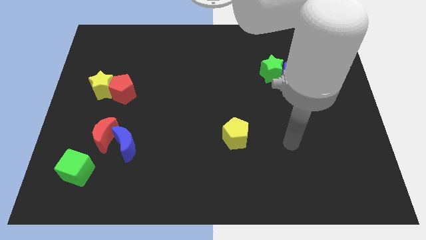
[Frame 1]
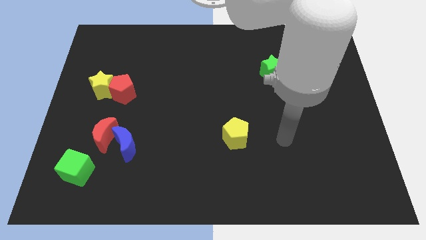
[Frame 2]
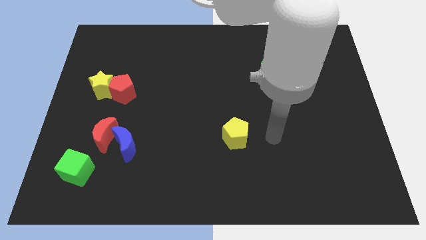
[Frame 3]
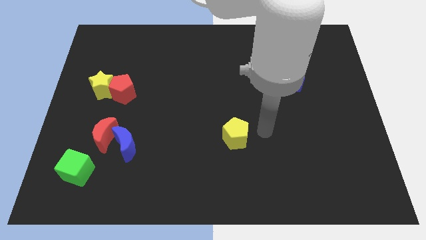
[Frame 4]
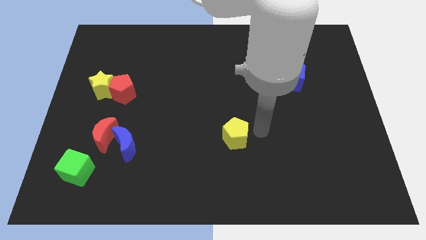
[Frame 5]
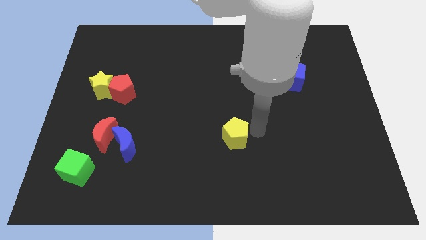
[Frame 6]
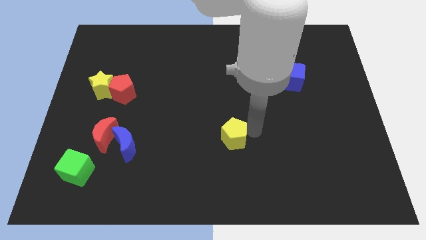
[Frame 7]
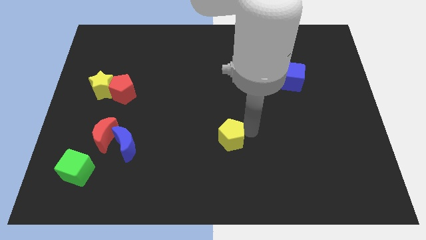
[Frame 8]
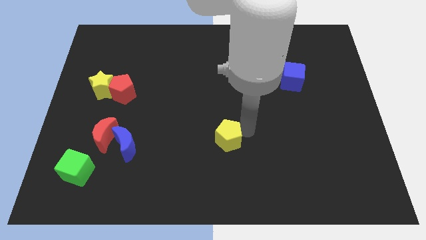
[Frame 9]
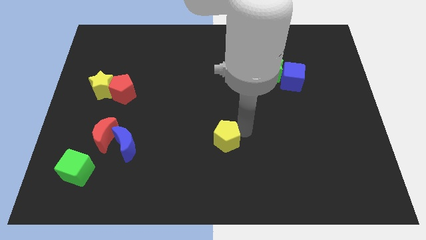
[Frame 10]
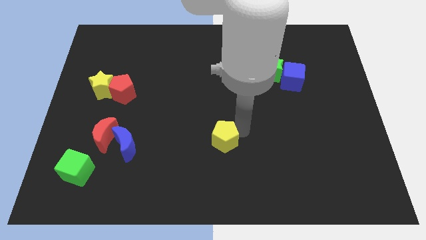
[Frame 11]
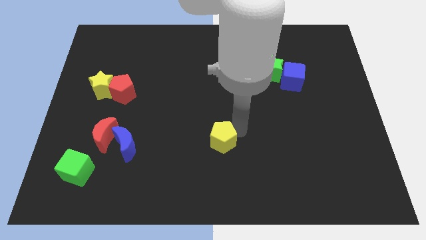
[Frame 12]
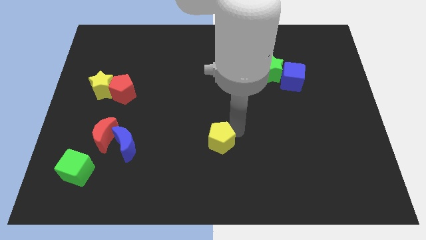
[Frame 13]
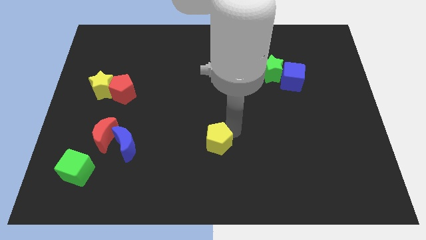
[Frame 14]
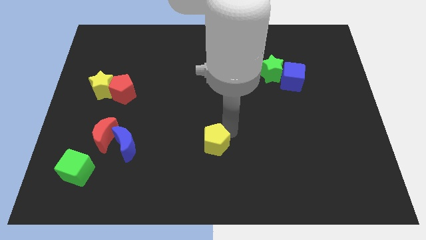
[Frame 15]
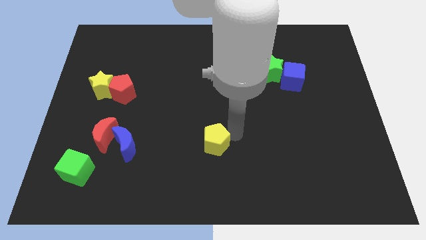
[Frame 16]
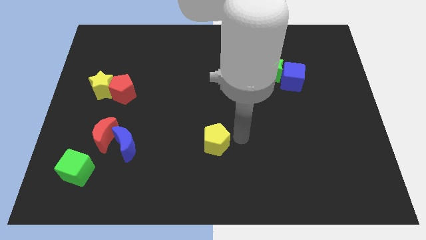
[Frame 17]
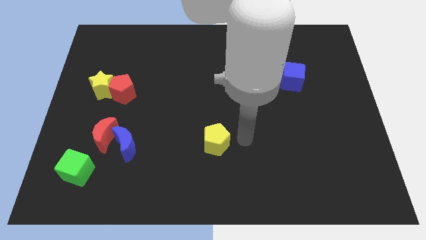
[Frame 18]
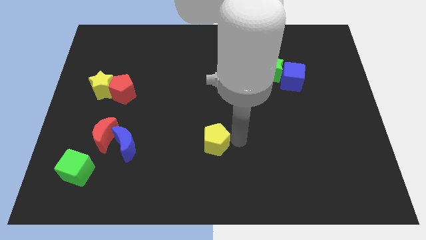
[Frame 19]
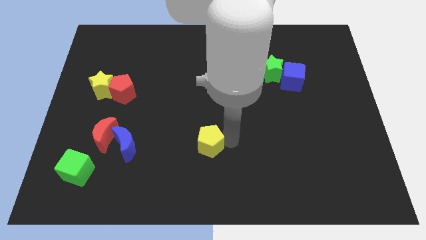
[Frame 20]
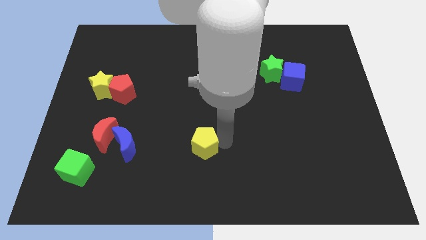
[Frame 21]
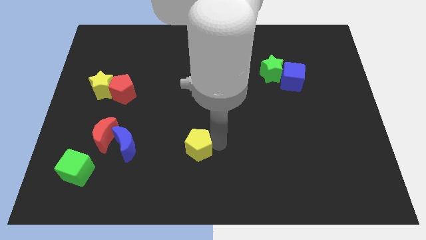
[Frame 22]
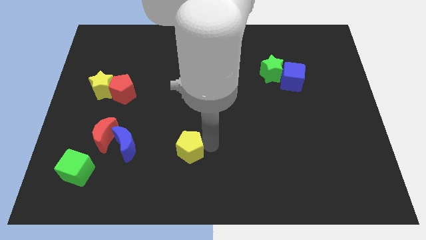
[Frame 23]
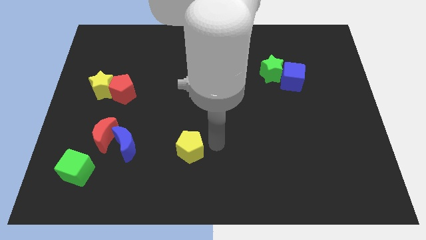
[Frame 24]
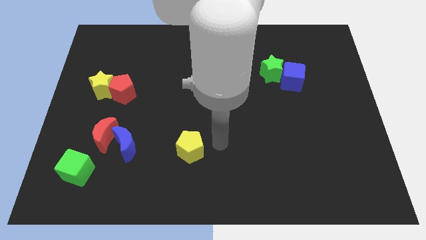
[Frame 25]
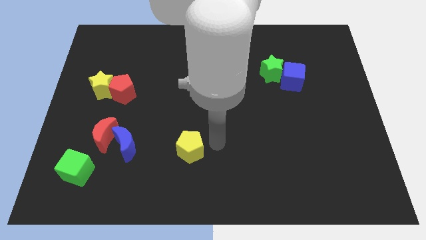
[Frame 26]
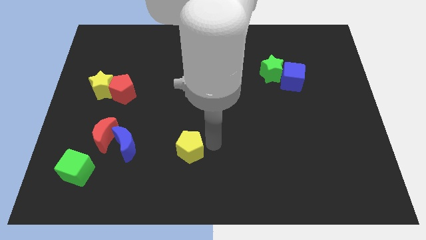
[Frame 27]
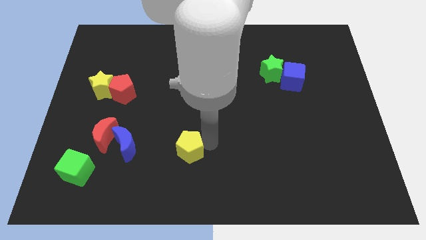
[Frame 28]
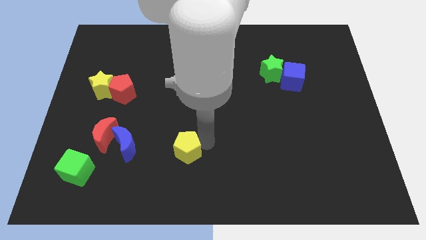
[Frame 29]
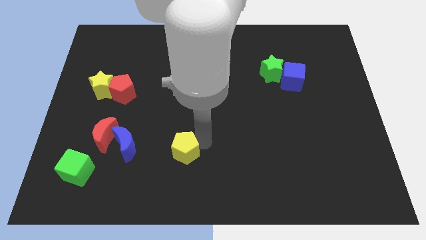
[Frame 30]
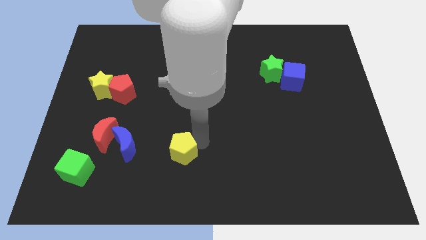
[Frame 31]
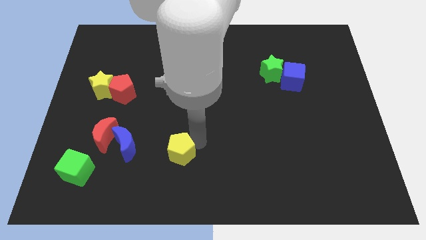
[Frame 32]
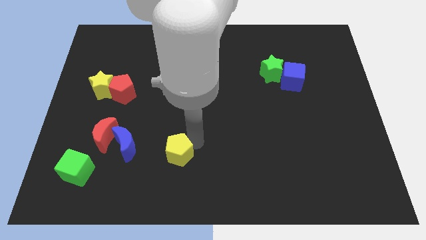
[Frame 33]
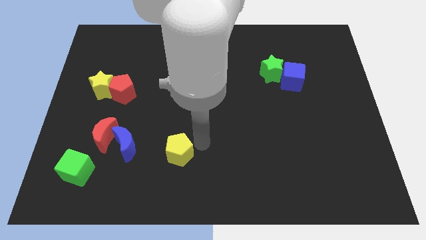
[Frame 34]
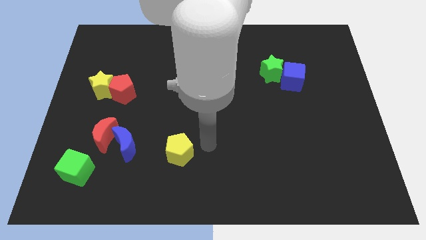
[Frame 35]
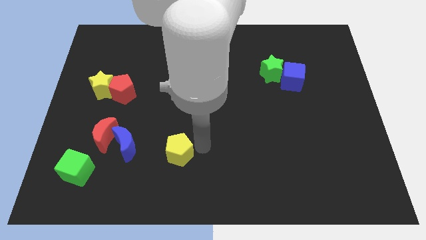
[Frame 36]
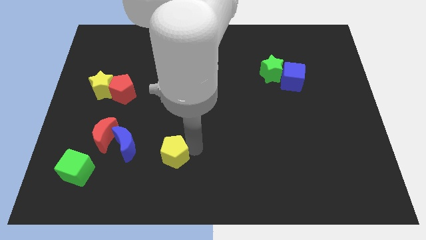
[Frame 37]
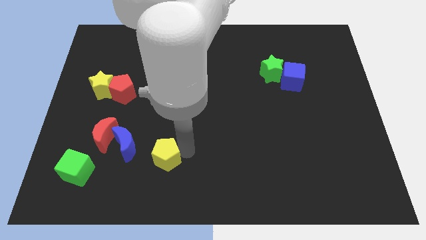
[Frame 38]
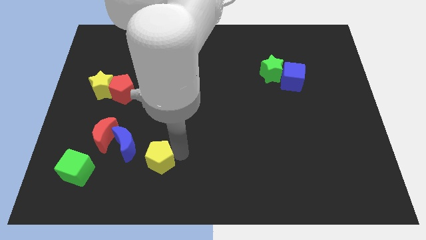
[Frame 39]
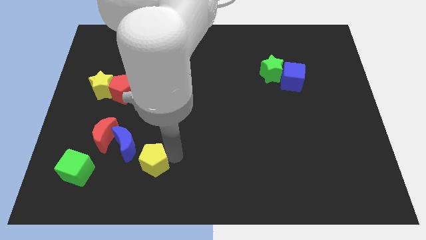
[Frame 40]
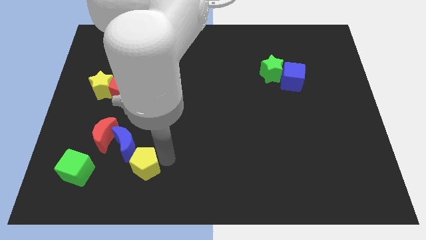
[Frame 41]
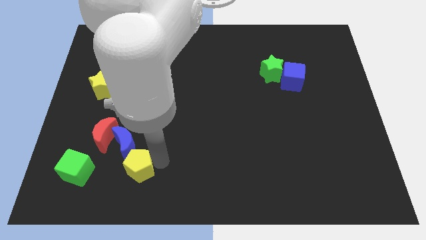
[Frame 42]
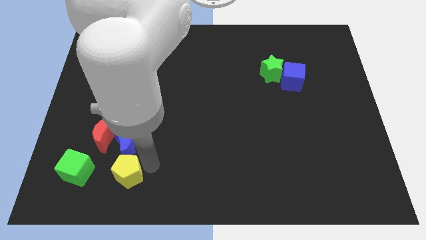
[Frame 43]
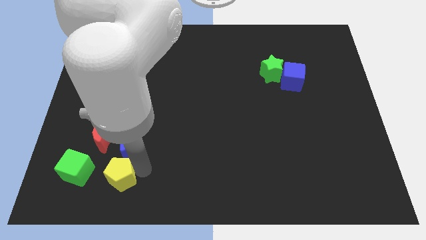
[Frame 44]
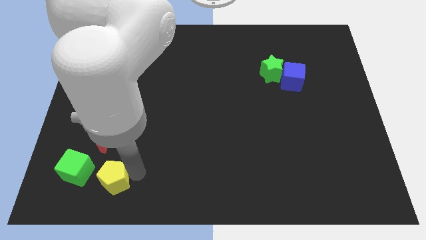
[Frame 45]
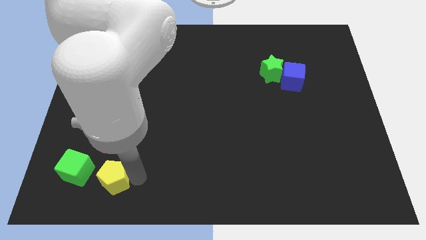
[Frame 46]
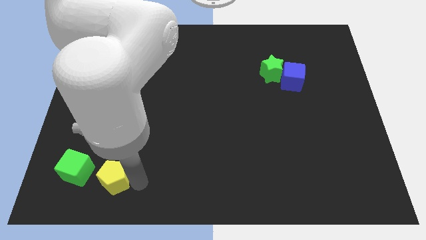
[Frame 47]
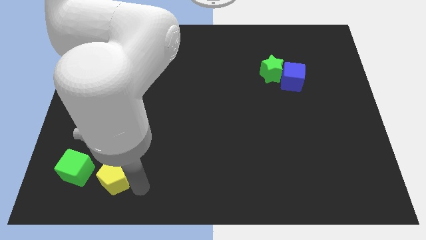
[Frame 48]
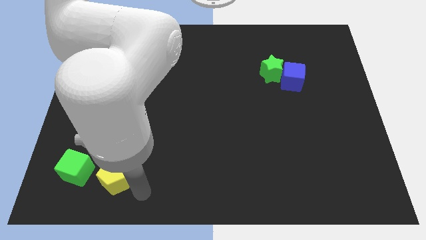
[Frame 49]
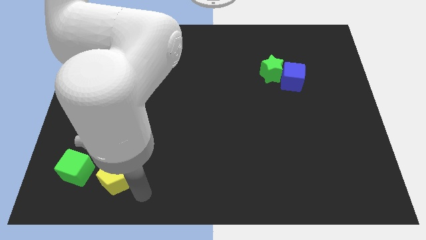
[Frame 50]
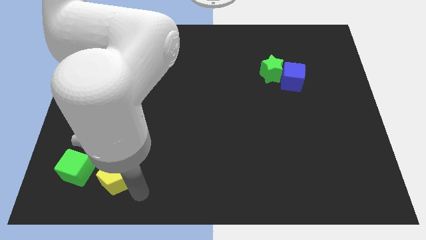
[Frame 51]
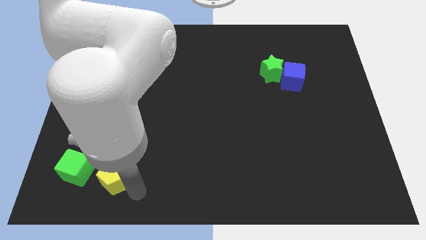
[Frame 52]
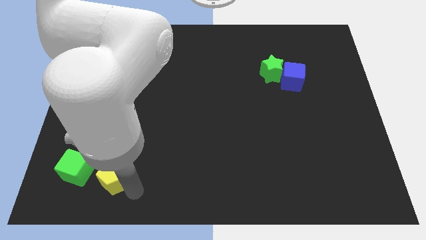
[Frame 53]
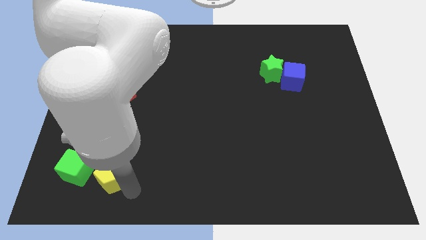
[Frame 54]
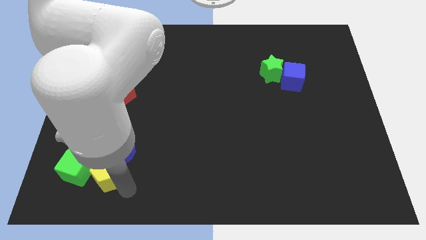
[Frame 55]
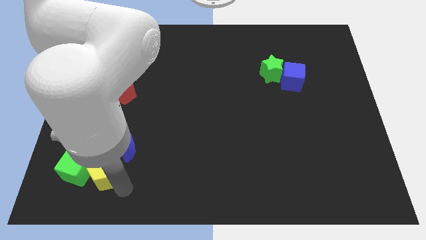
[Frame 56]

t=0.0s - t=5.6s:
slide the yellow pentagon next to the green cube

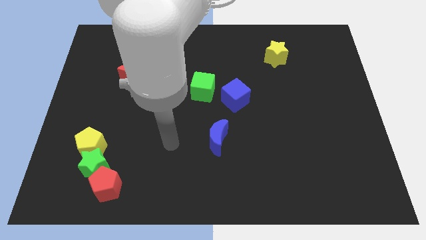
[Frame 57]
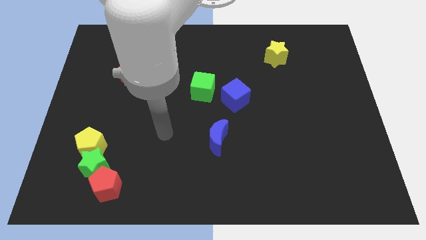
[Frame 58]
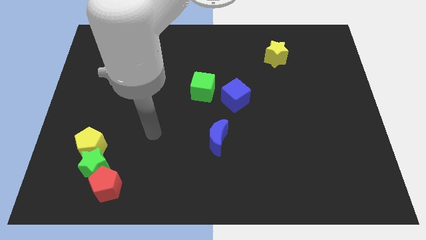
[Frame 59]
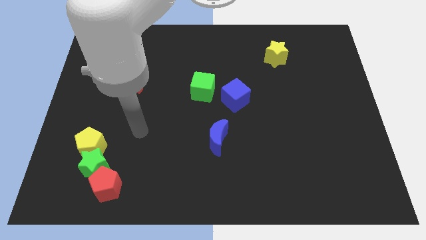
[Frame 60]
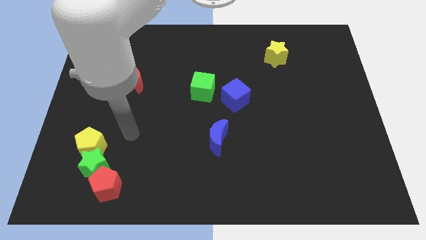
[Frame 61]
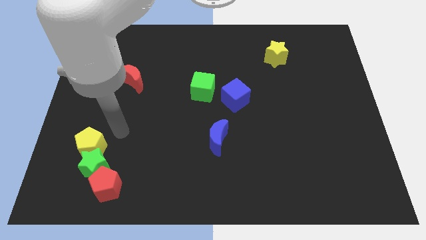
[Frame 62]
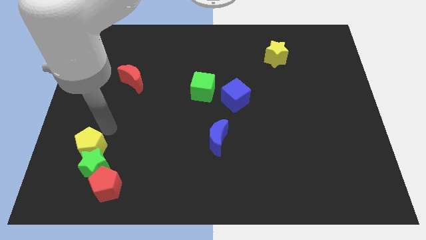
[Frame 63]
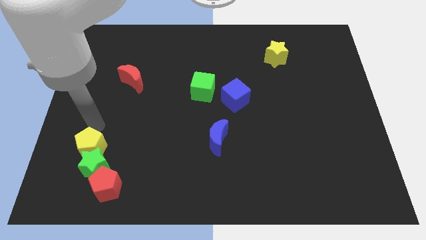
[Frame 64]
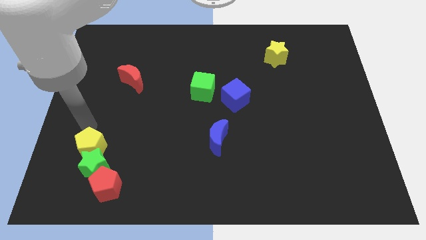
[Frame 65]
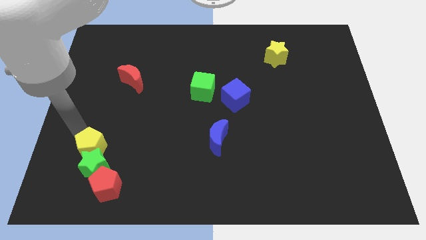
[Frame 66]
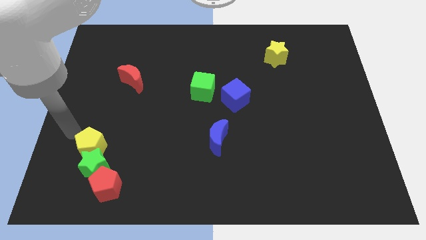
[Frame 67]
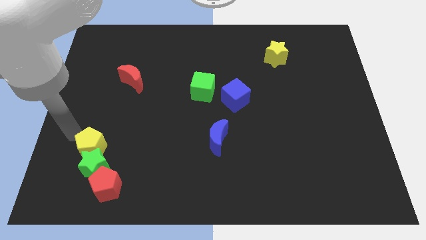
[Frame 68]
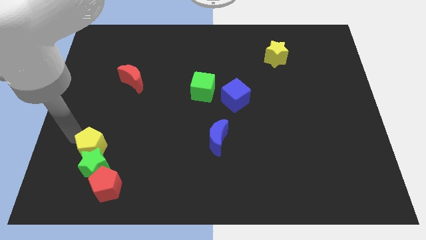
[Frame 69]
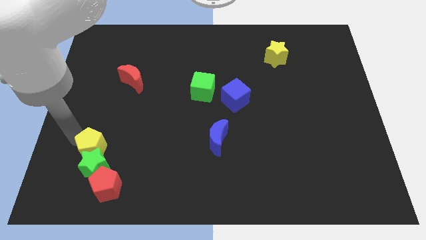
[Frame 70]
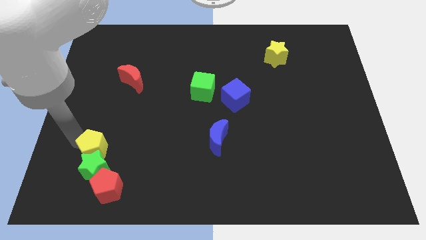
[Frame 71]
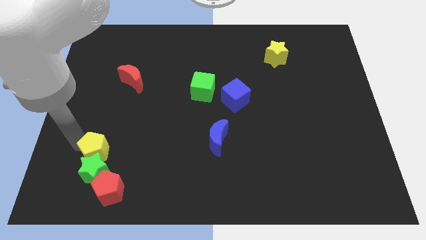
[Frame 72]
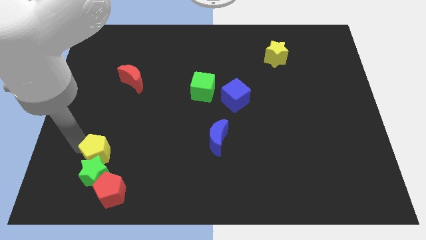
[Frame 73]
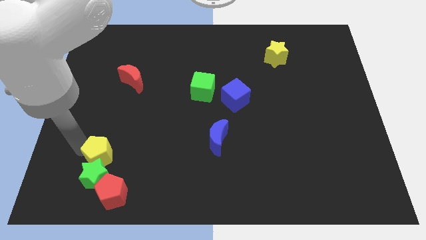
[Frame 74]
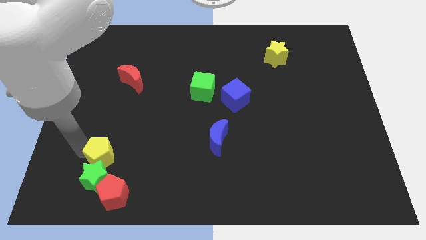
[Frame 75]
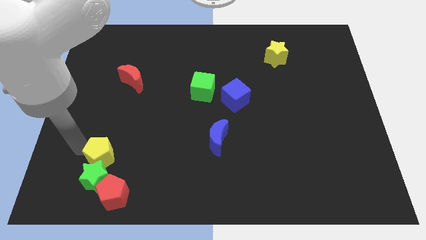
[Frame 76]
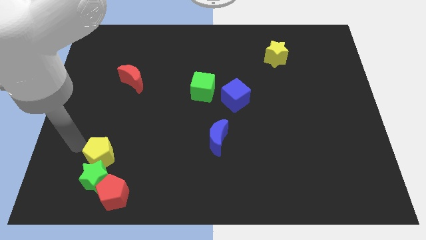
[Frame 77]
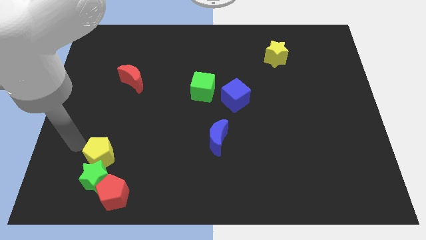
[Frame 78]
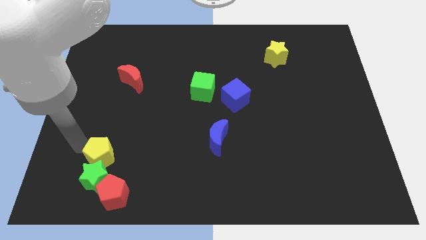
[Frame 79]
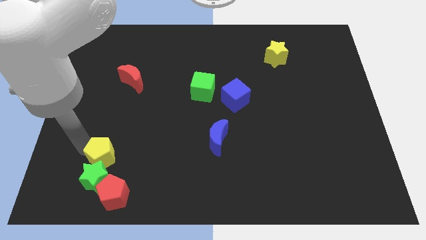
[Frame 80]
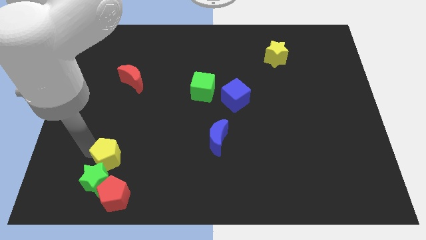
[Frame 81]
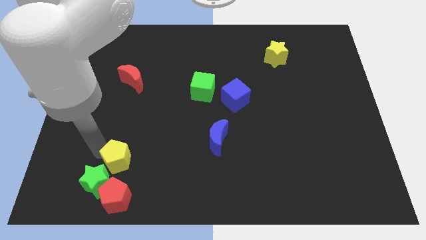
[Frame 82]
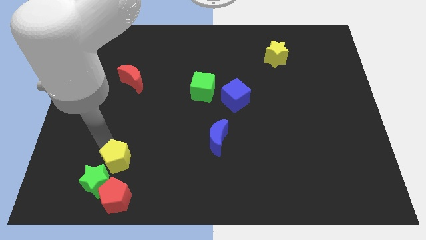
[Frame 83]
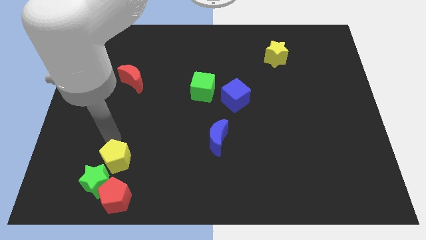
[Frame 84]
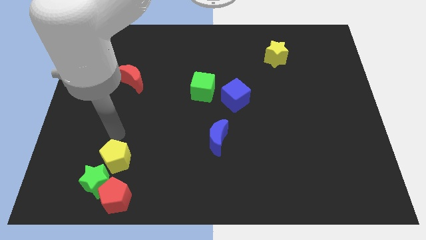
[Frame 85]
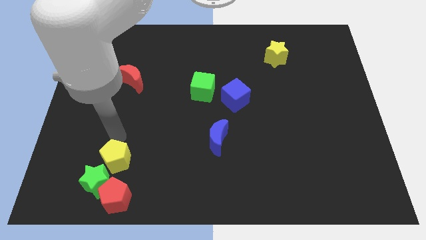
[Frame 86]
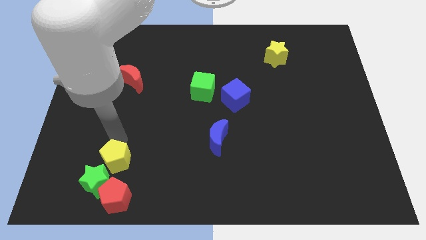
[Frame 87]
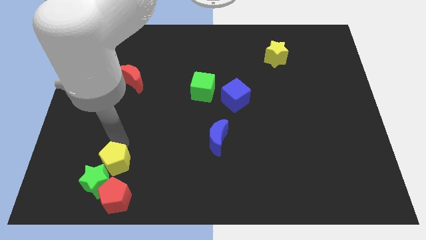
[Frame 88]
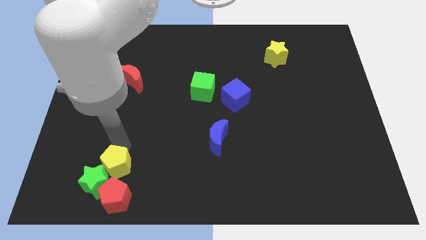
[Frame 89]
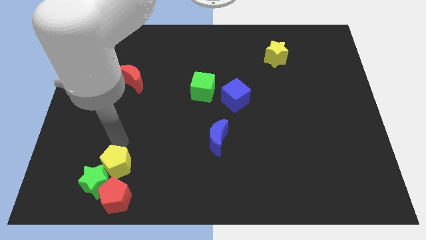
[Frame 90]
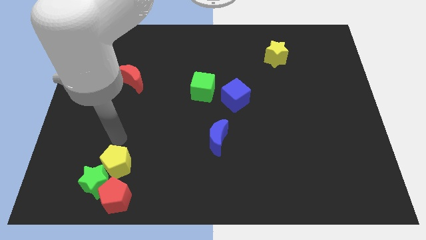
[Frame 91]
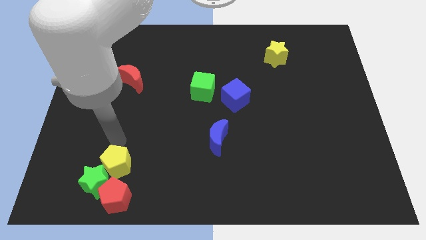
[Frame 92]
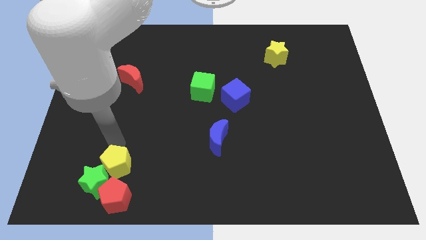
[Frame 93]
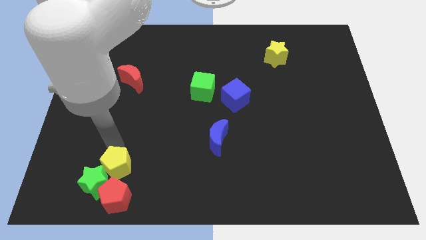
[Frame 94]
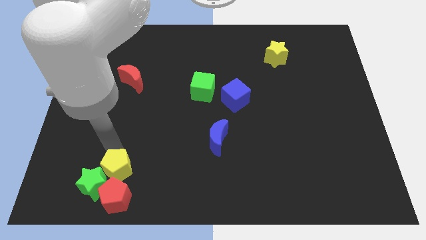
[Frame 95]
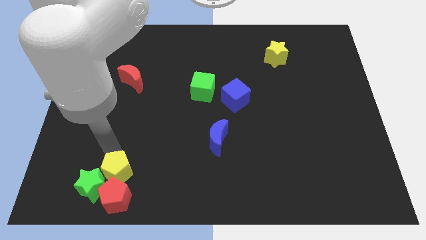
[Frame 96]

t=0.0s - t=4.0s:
push the yellow pentagon close to the red pentagon
